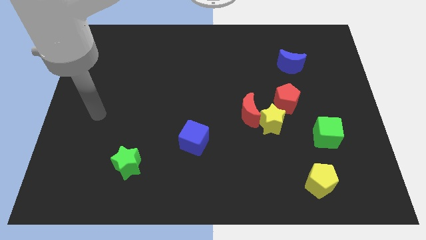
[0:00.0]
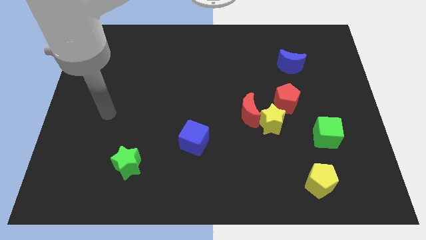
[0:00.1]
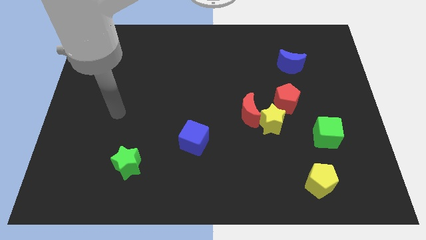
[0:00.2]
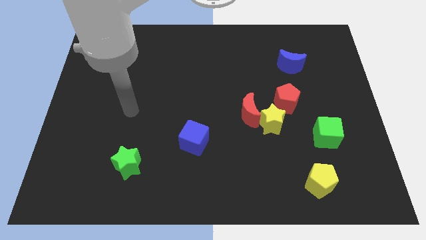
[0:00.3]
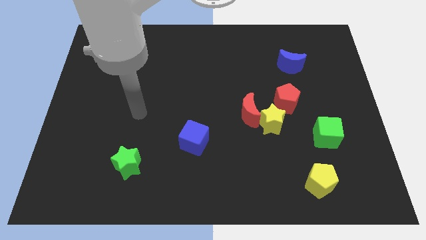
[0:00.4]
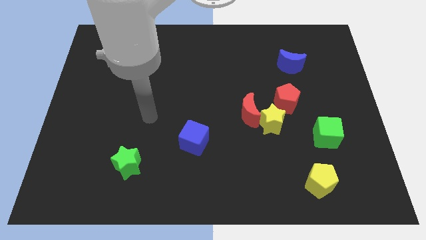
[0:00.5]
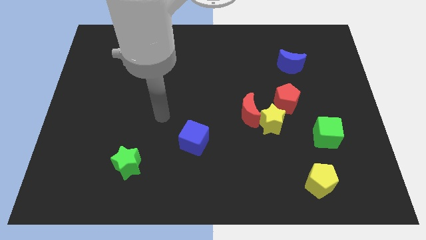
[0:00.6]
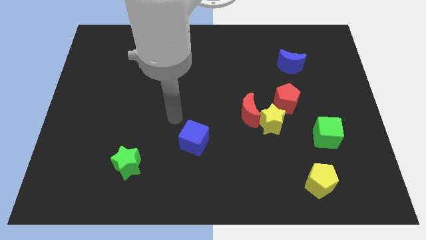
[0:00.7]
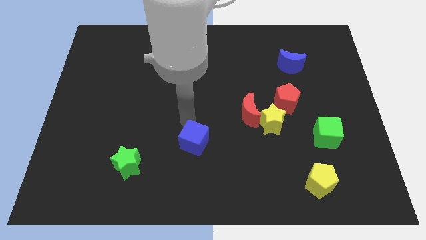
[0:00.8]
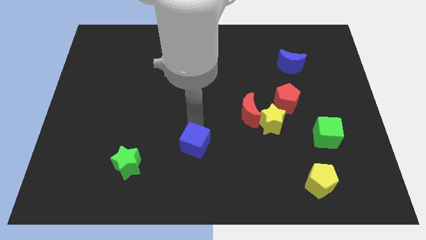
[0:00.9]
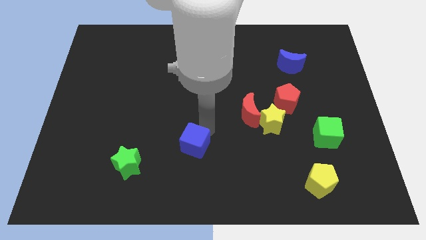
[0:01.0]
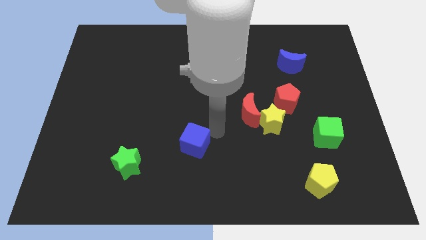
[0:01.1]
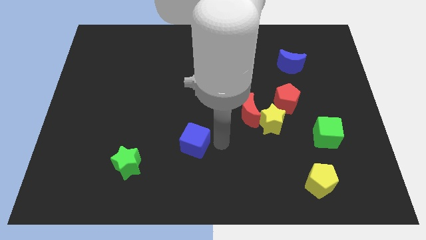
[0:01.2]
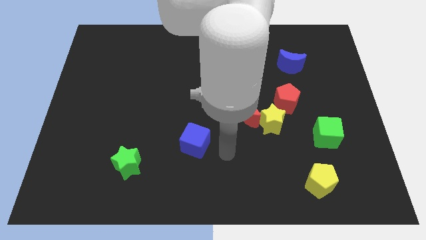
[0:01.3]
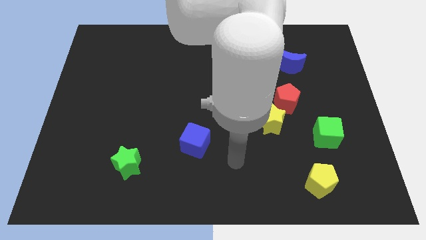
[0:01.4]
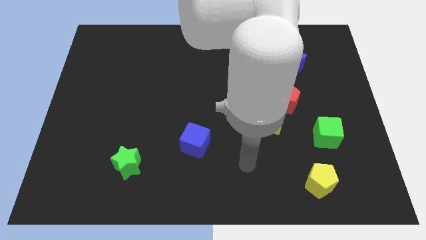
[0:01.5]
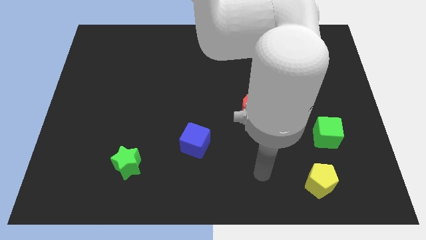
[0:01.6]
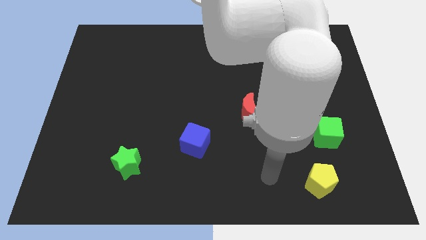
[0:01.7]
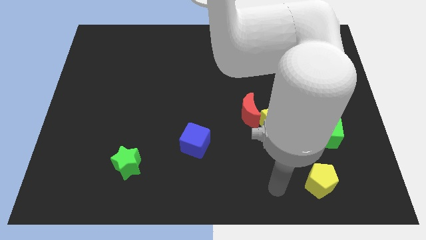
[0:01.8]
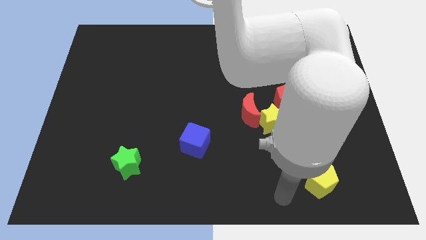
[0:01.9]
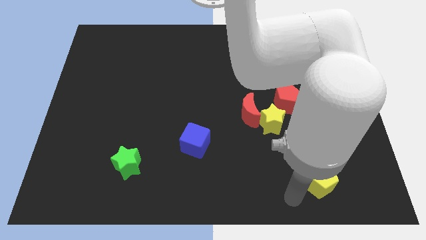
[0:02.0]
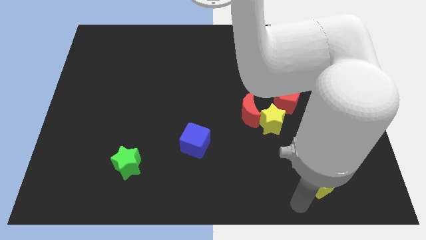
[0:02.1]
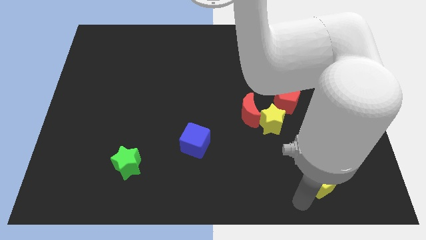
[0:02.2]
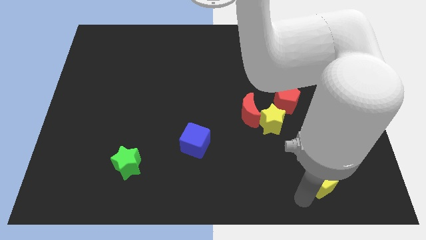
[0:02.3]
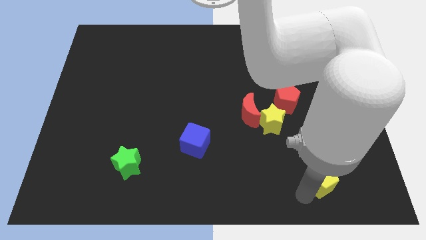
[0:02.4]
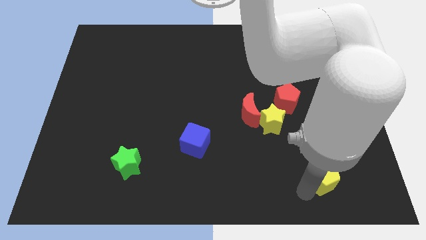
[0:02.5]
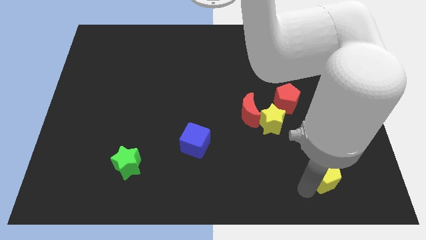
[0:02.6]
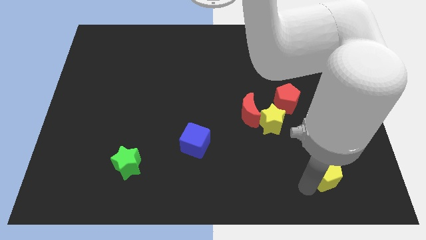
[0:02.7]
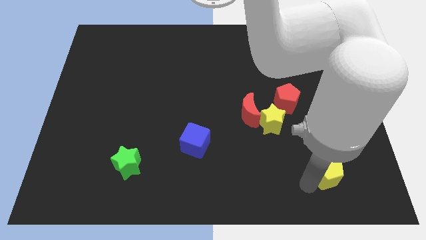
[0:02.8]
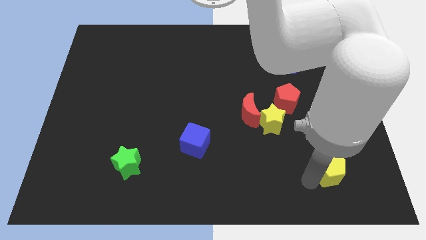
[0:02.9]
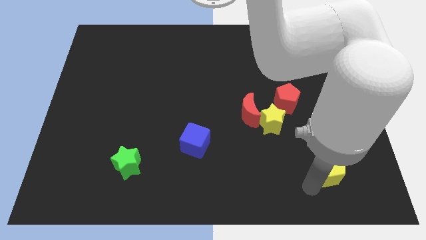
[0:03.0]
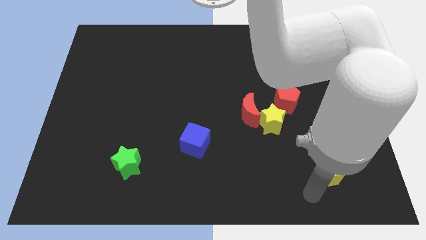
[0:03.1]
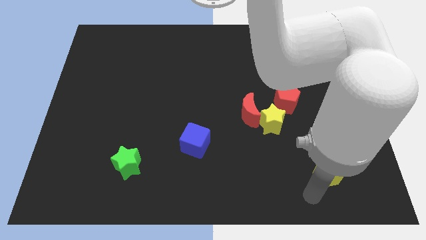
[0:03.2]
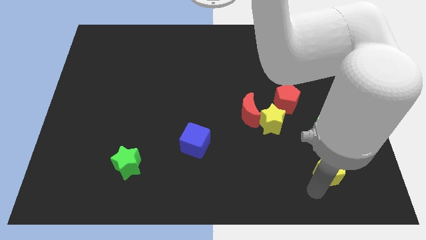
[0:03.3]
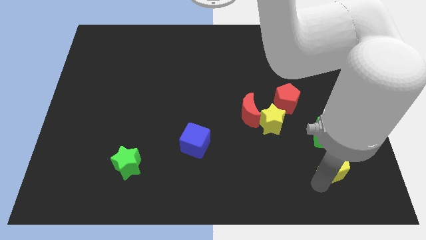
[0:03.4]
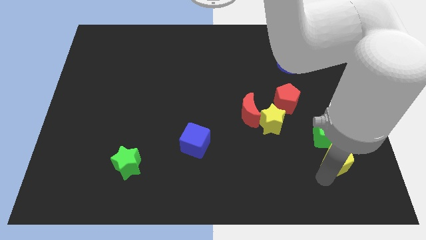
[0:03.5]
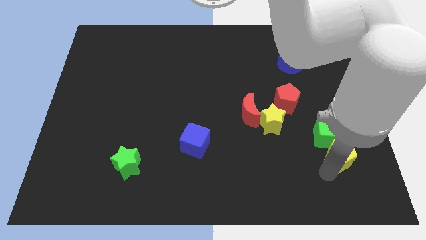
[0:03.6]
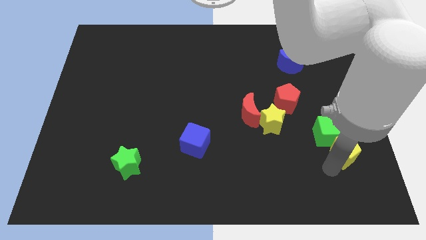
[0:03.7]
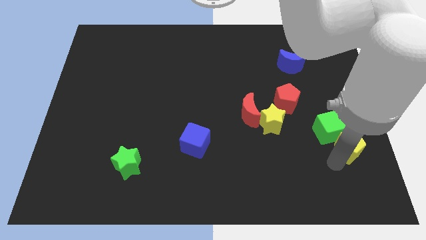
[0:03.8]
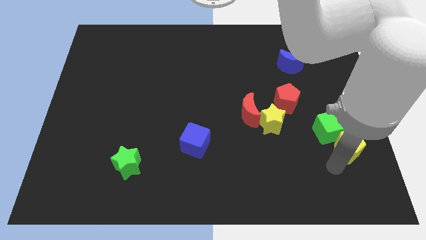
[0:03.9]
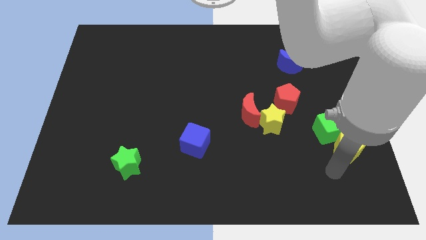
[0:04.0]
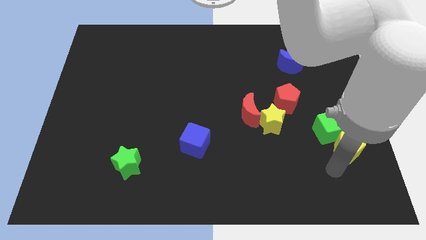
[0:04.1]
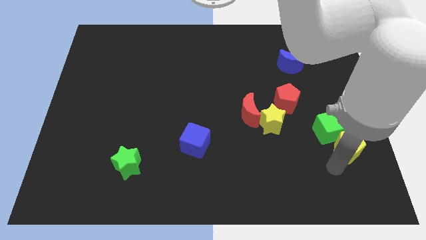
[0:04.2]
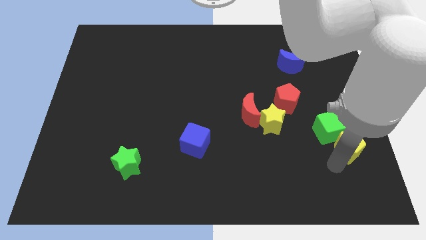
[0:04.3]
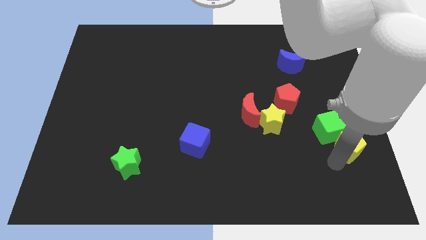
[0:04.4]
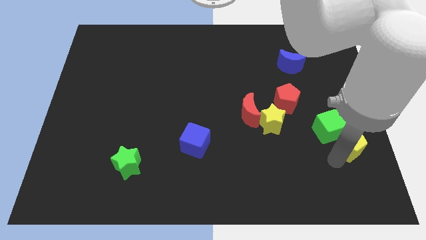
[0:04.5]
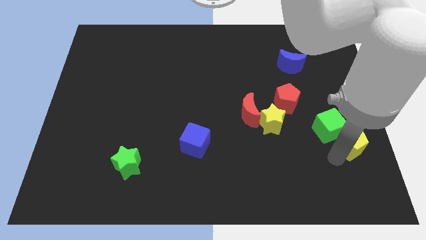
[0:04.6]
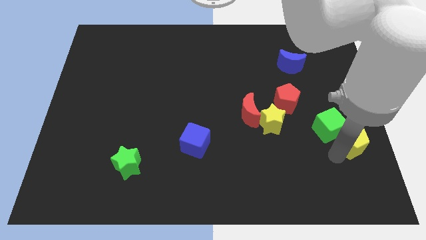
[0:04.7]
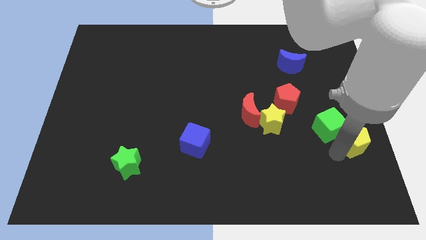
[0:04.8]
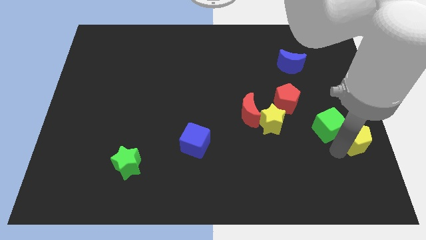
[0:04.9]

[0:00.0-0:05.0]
slide the yellow pentagon to the right side of the board

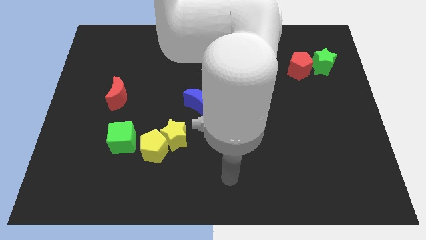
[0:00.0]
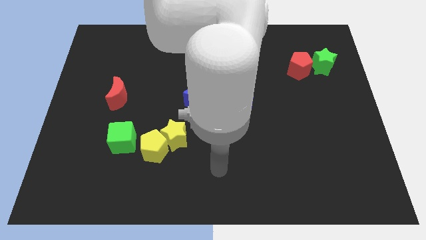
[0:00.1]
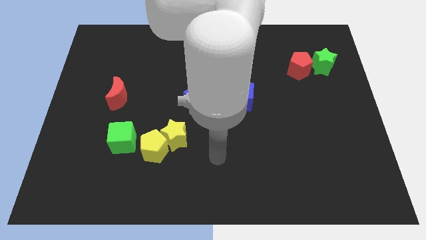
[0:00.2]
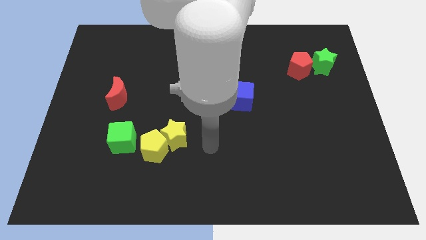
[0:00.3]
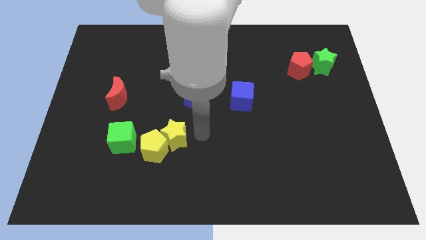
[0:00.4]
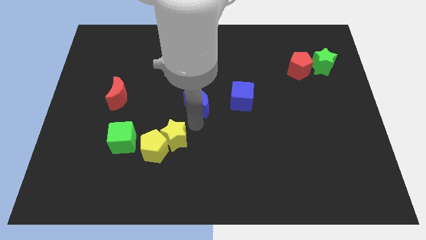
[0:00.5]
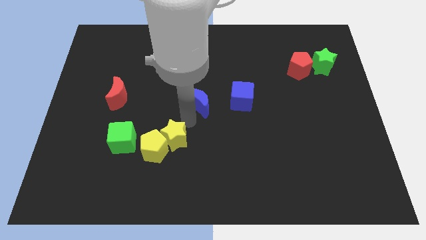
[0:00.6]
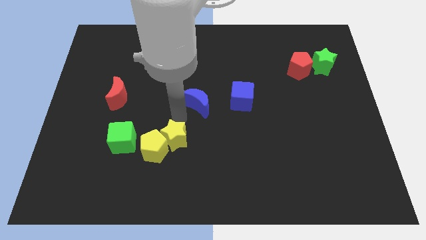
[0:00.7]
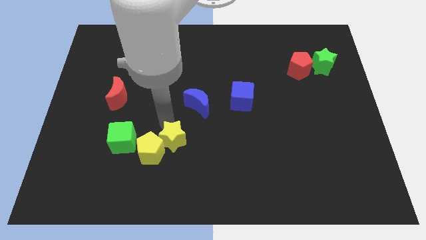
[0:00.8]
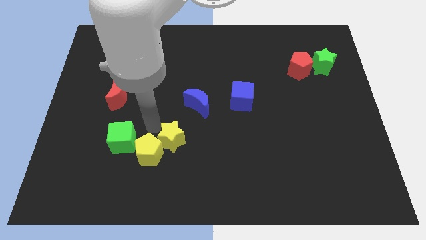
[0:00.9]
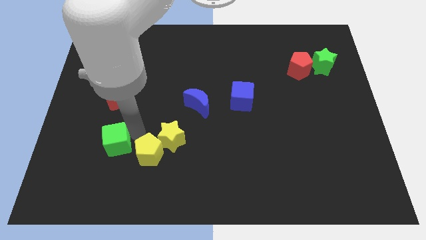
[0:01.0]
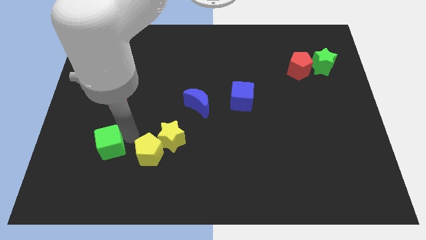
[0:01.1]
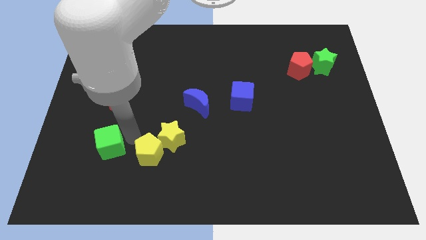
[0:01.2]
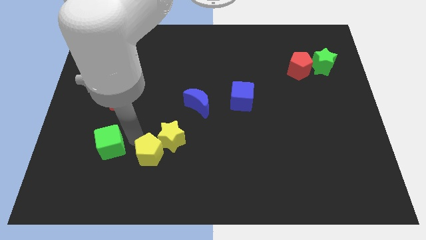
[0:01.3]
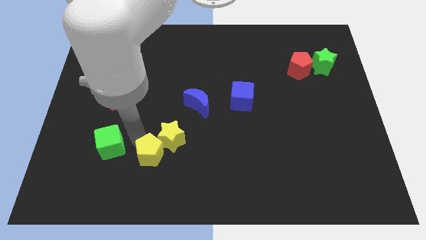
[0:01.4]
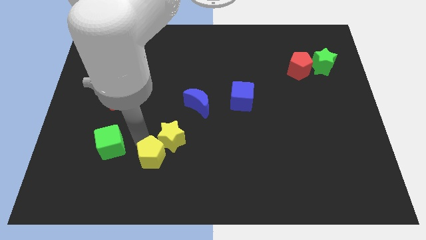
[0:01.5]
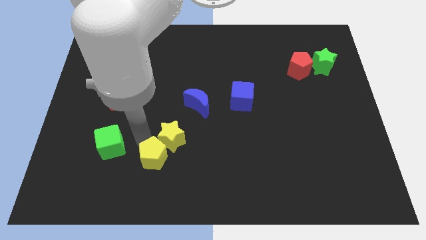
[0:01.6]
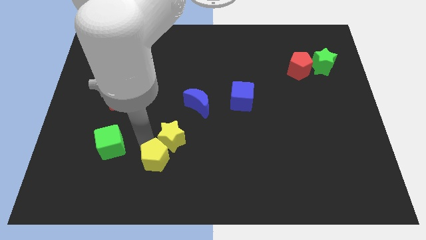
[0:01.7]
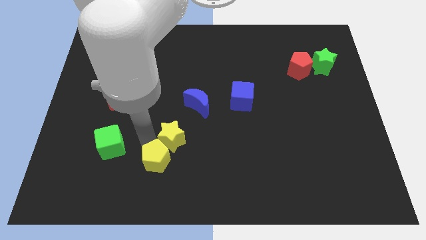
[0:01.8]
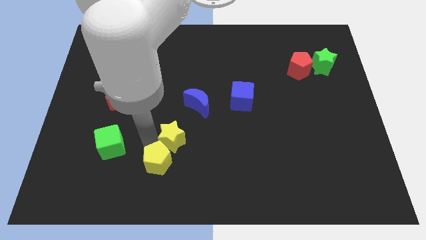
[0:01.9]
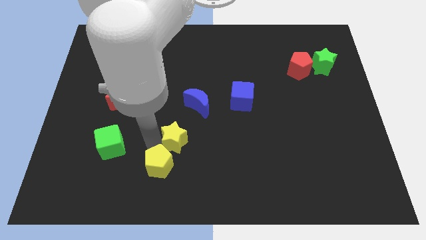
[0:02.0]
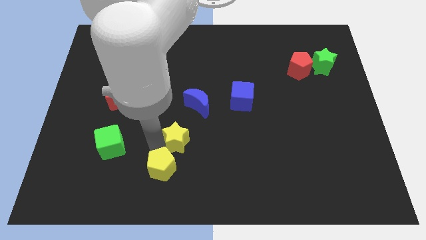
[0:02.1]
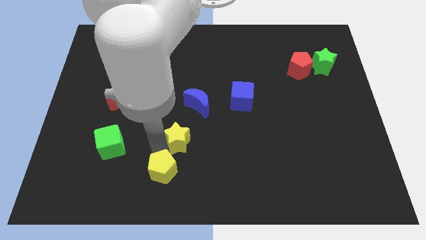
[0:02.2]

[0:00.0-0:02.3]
move the yellow pentagon to the bottom
